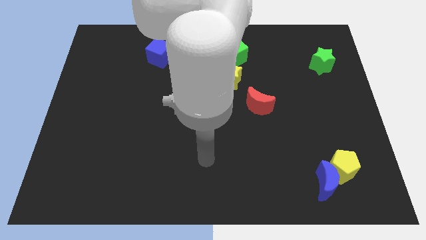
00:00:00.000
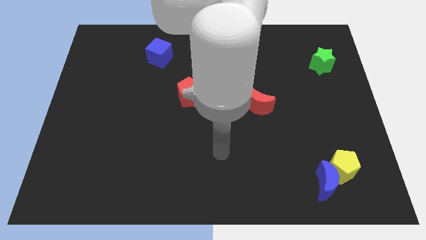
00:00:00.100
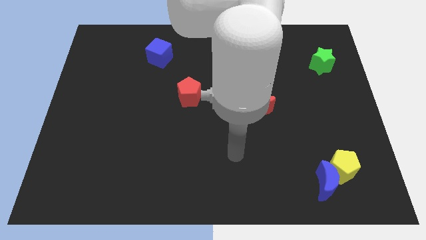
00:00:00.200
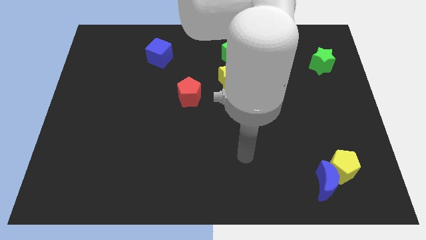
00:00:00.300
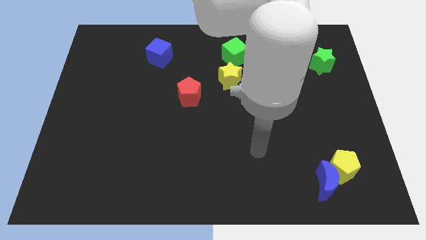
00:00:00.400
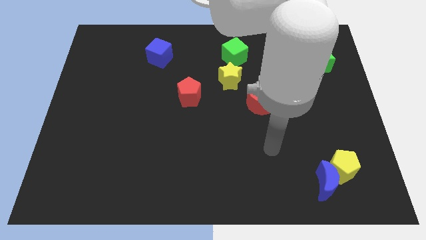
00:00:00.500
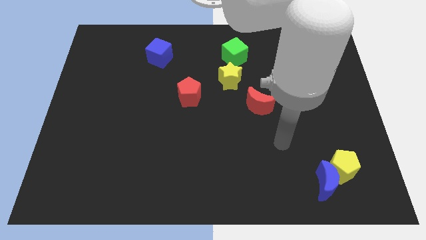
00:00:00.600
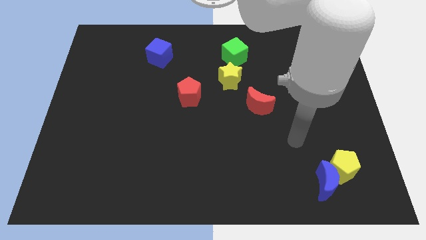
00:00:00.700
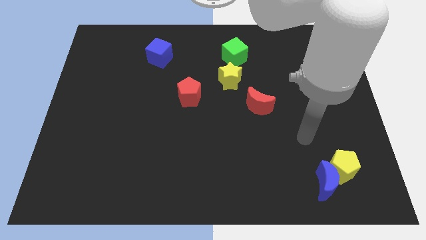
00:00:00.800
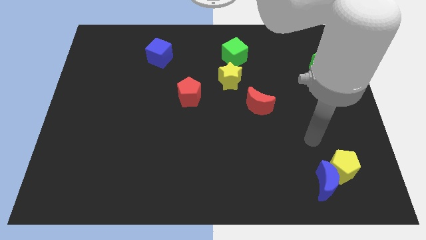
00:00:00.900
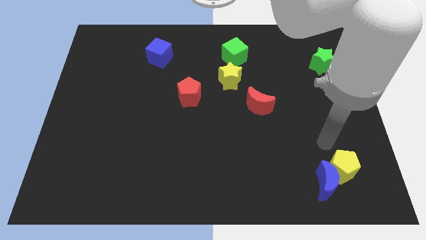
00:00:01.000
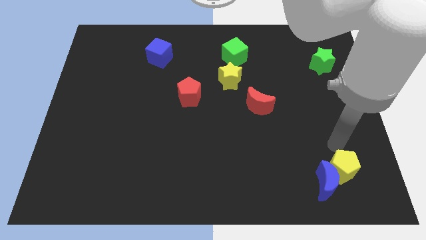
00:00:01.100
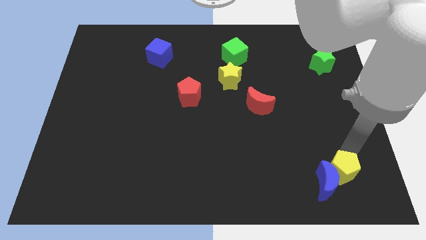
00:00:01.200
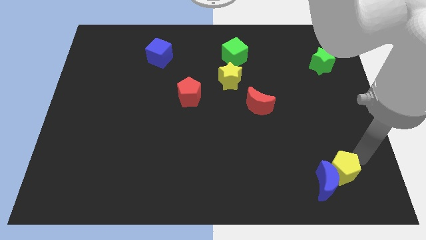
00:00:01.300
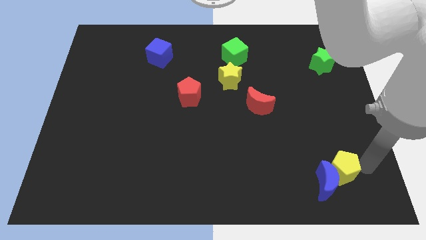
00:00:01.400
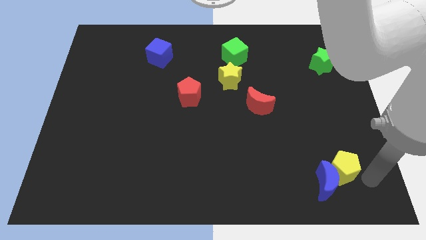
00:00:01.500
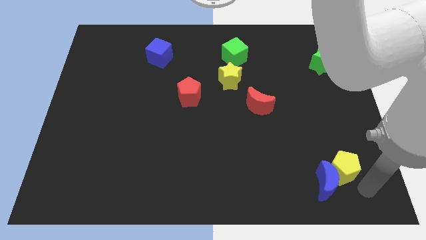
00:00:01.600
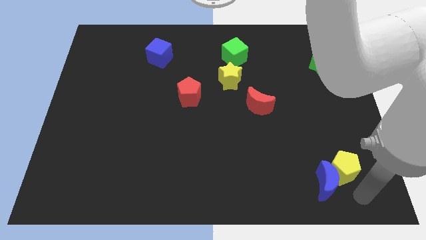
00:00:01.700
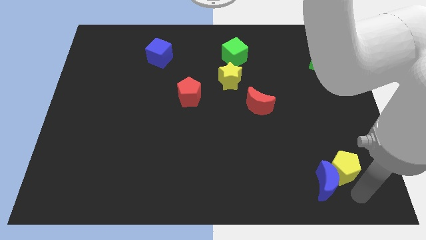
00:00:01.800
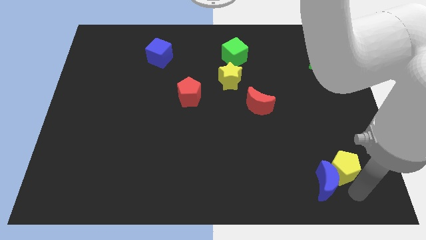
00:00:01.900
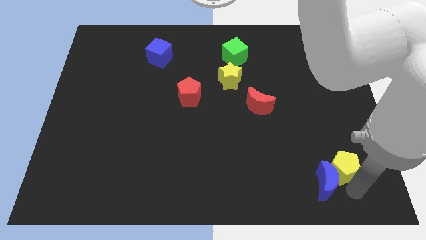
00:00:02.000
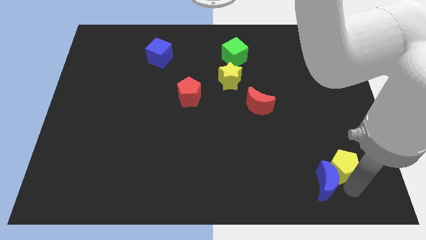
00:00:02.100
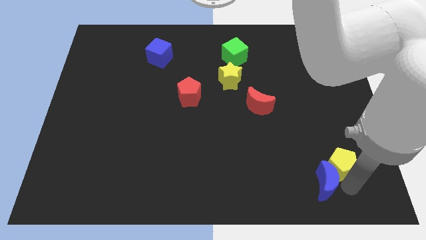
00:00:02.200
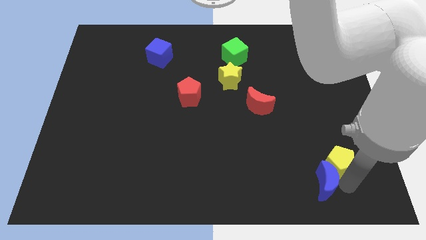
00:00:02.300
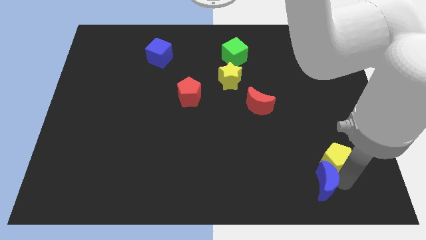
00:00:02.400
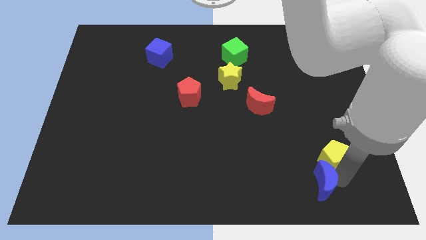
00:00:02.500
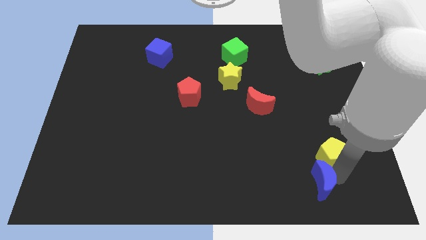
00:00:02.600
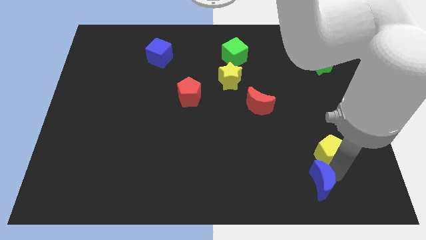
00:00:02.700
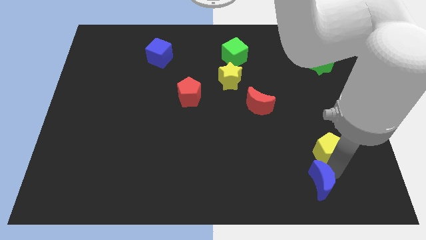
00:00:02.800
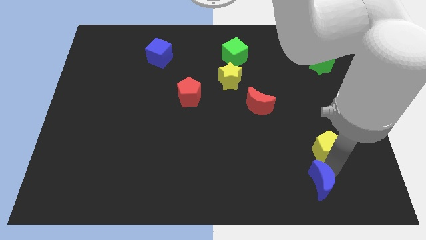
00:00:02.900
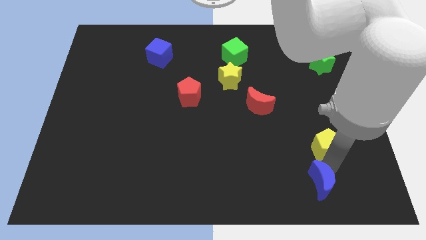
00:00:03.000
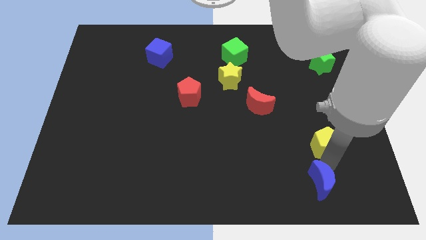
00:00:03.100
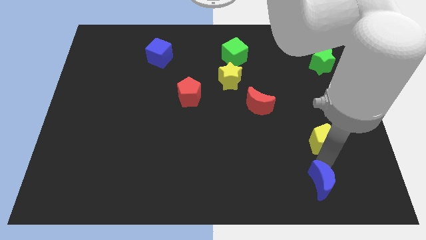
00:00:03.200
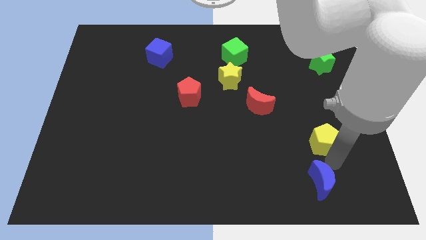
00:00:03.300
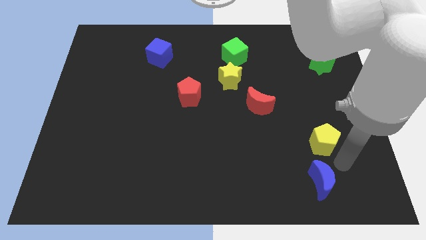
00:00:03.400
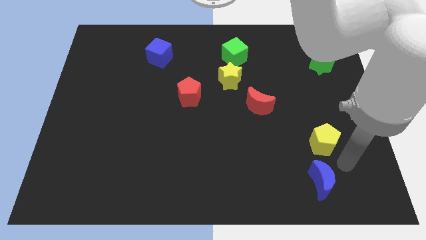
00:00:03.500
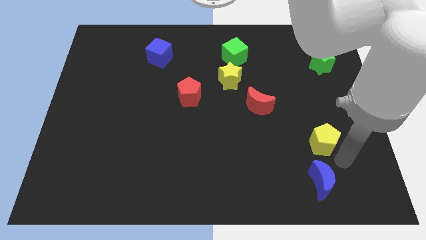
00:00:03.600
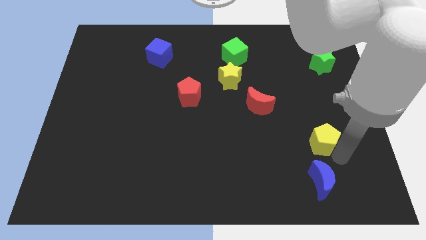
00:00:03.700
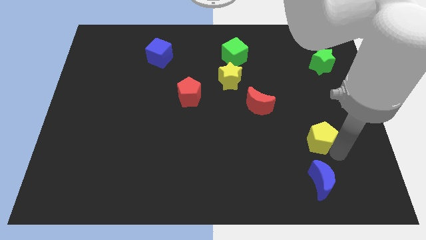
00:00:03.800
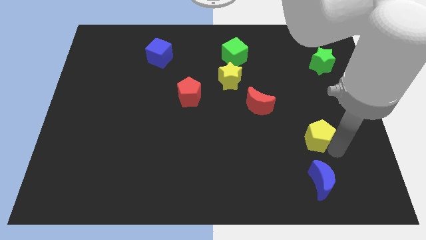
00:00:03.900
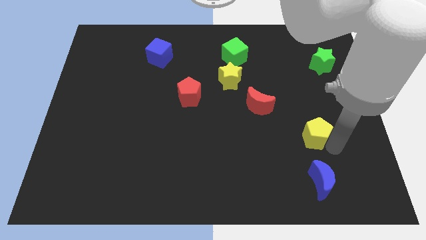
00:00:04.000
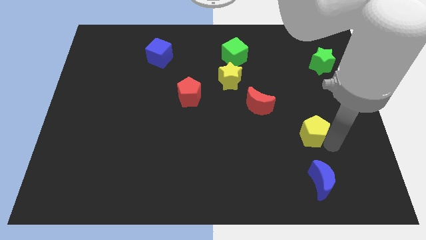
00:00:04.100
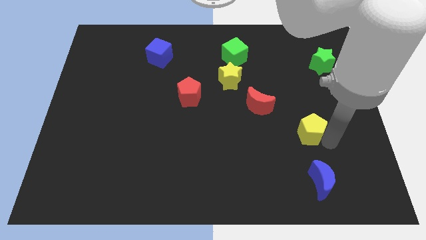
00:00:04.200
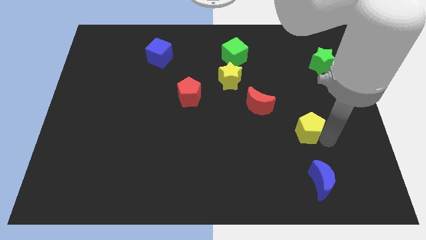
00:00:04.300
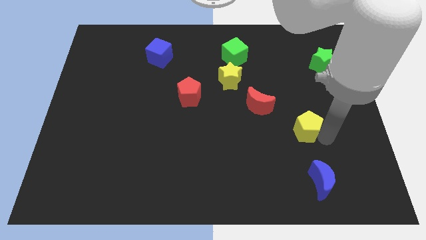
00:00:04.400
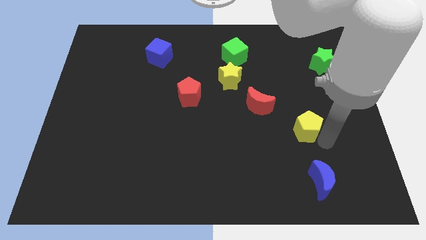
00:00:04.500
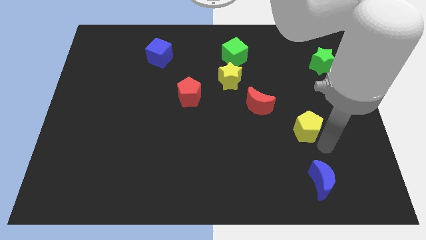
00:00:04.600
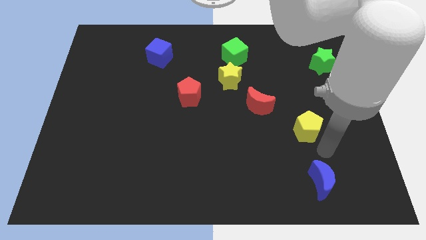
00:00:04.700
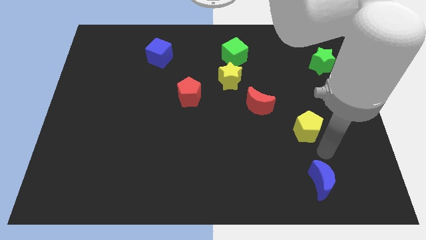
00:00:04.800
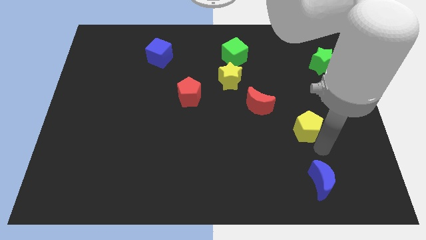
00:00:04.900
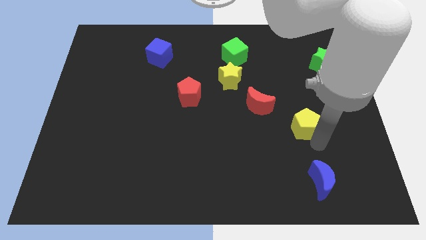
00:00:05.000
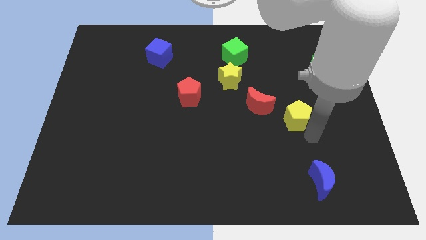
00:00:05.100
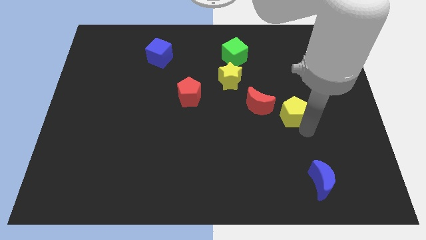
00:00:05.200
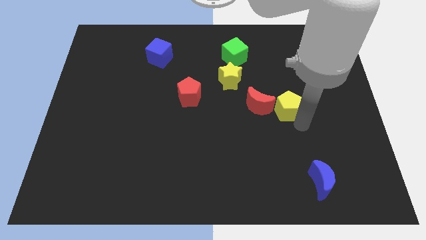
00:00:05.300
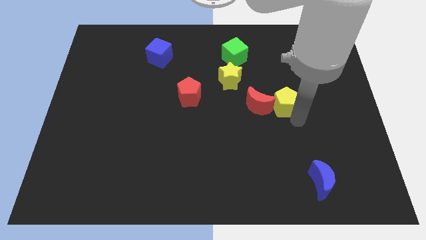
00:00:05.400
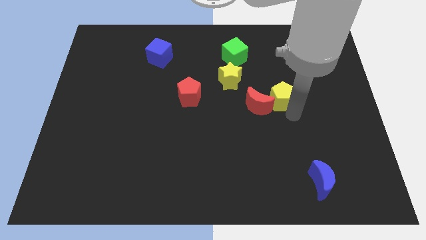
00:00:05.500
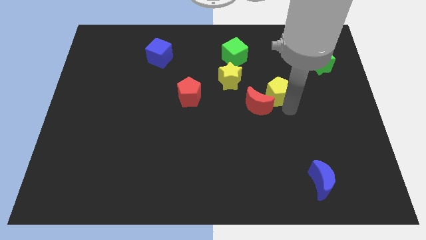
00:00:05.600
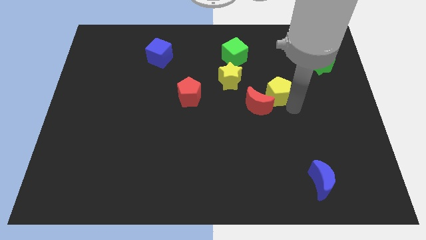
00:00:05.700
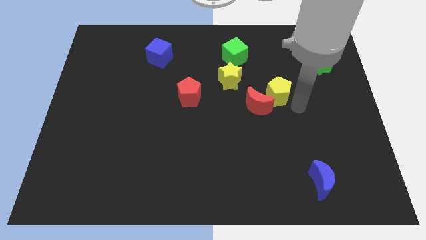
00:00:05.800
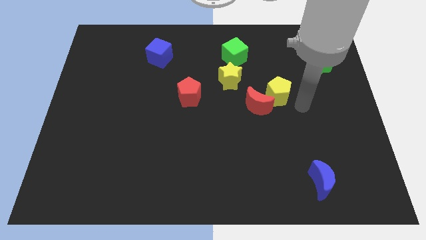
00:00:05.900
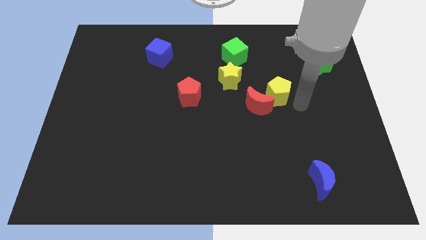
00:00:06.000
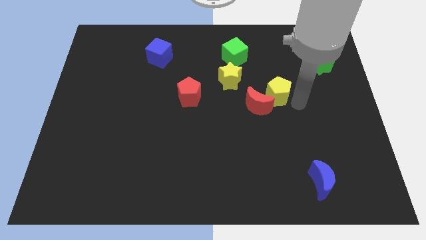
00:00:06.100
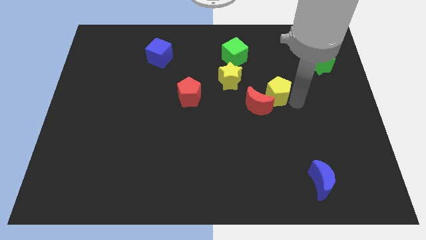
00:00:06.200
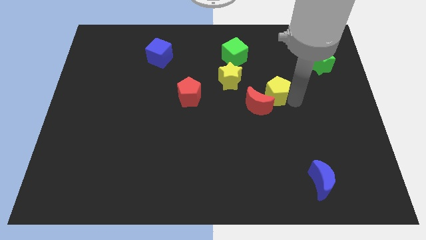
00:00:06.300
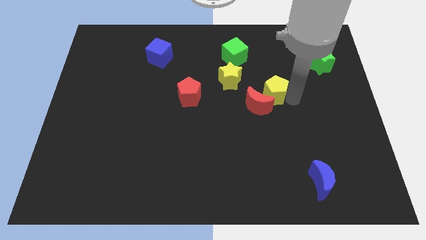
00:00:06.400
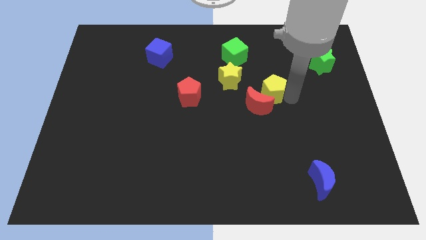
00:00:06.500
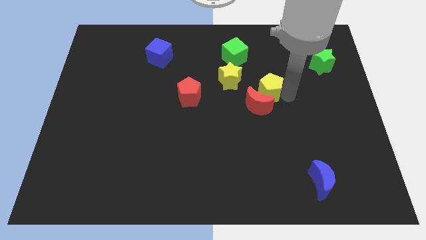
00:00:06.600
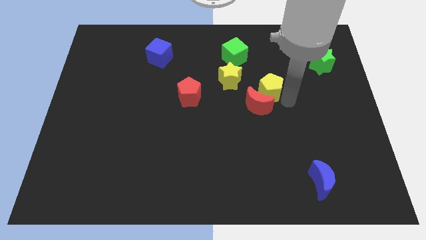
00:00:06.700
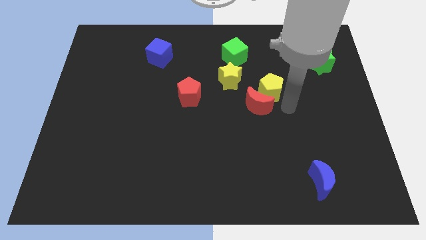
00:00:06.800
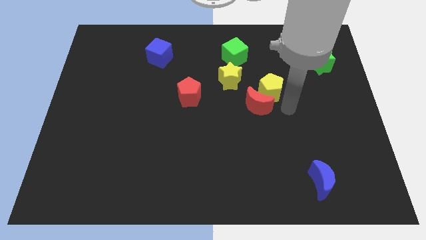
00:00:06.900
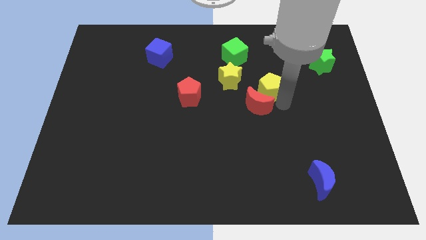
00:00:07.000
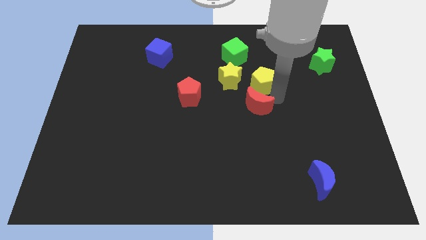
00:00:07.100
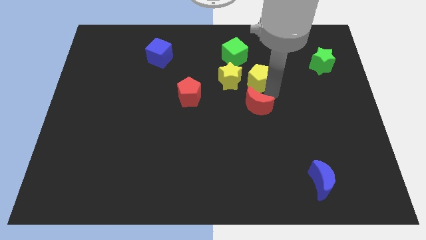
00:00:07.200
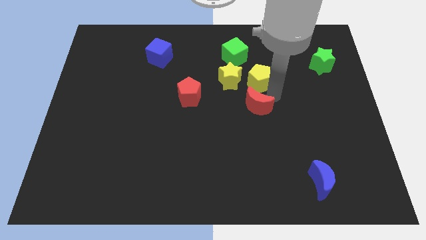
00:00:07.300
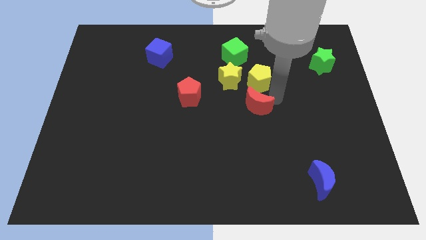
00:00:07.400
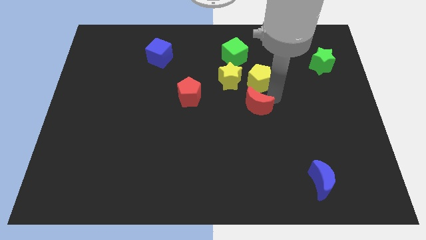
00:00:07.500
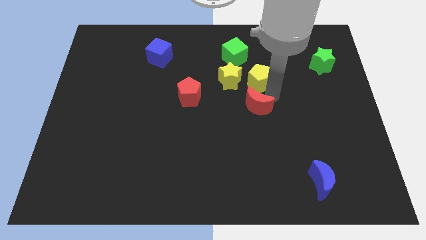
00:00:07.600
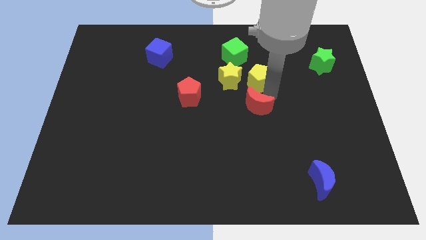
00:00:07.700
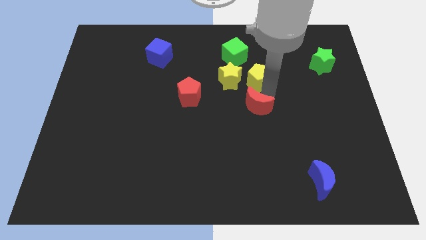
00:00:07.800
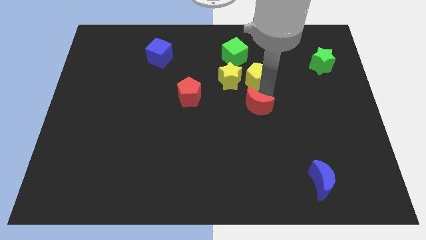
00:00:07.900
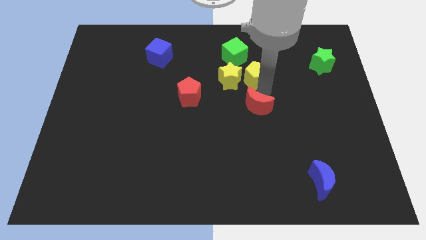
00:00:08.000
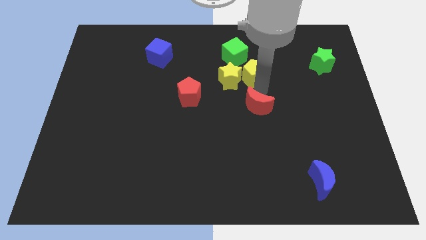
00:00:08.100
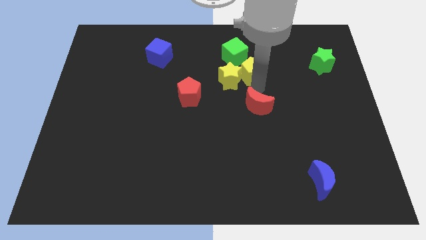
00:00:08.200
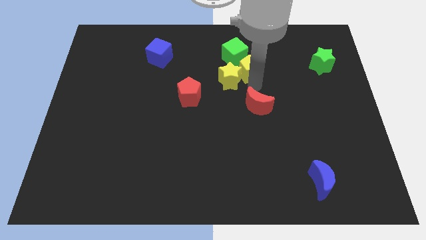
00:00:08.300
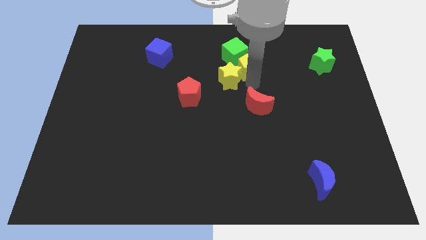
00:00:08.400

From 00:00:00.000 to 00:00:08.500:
slide the yellow pentagon towards the green cube
